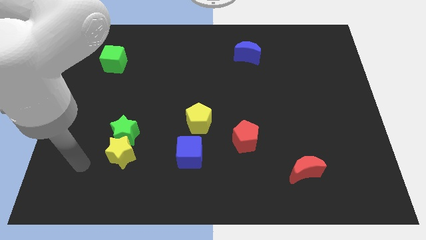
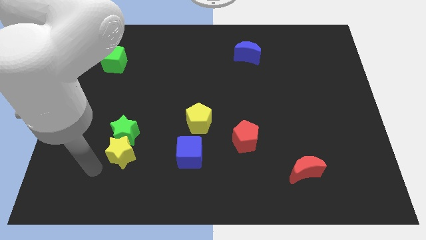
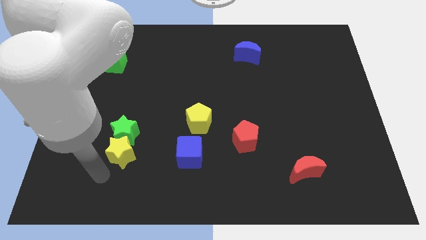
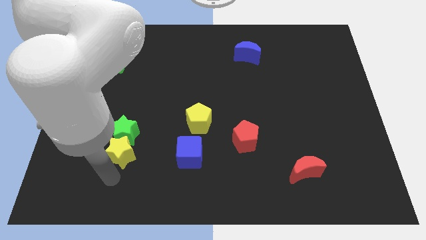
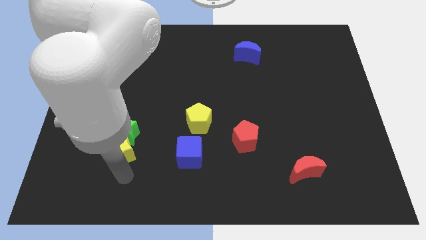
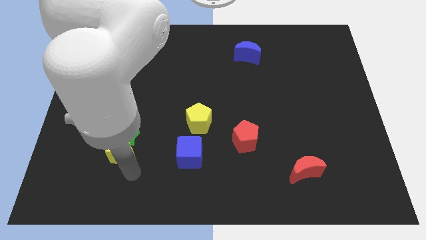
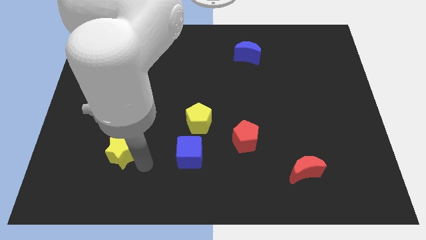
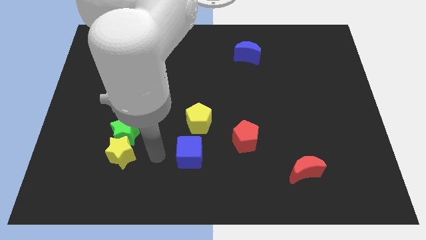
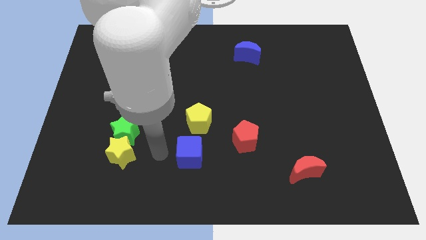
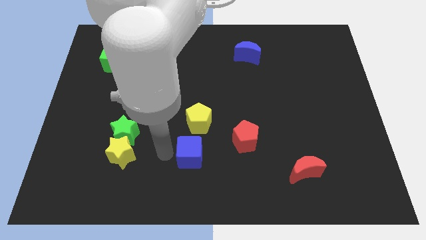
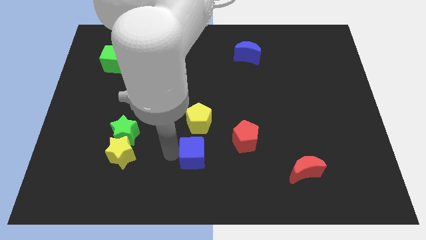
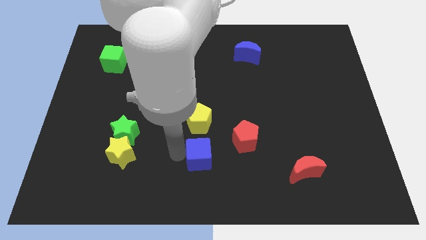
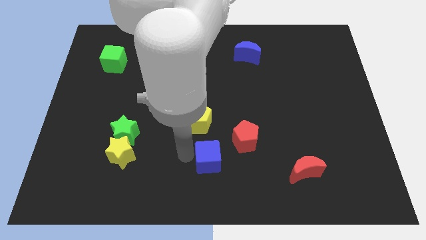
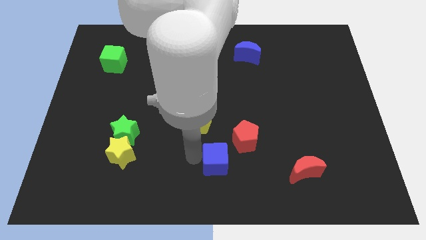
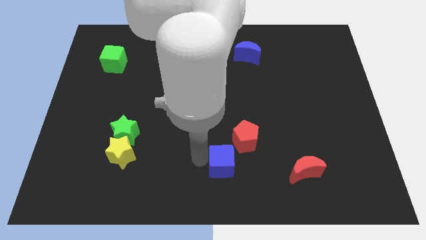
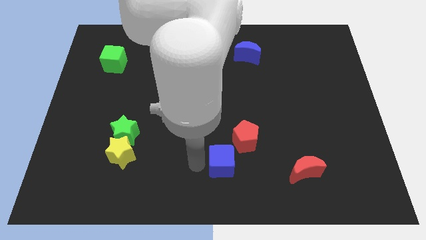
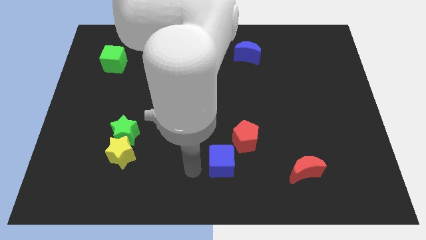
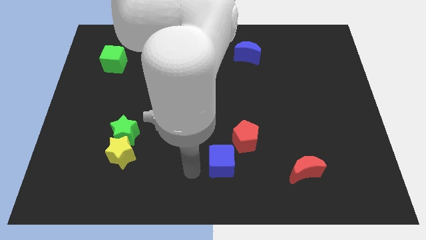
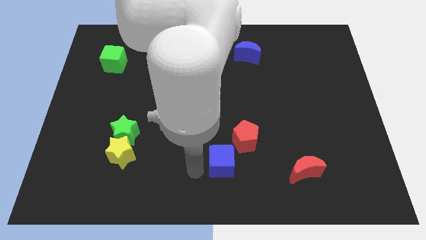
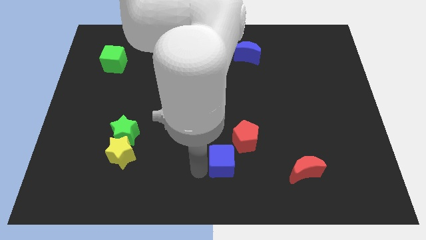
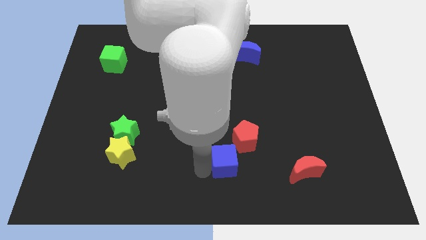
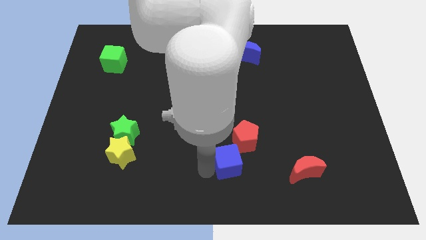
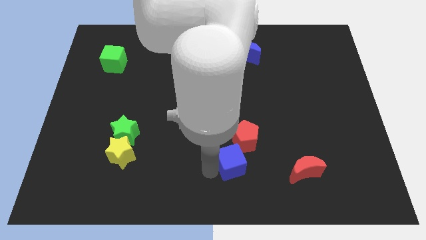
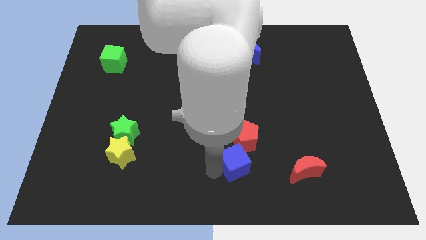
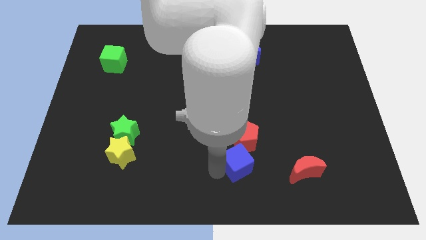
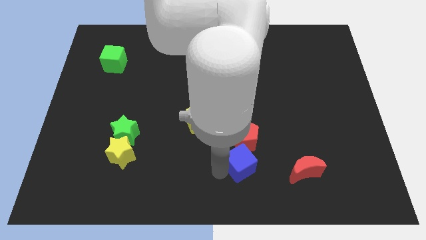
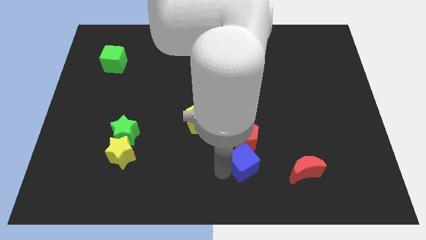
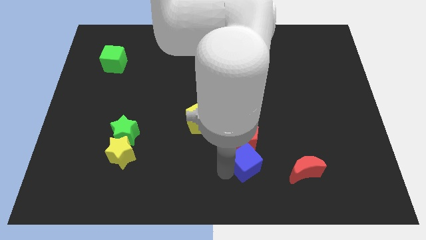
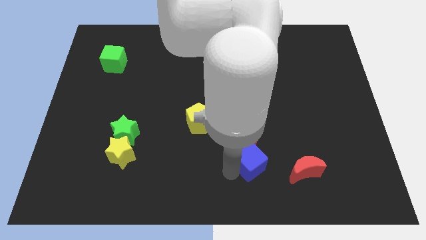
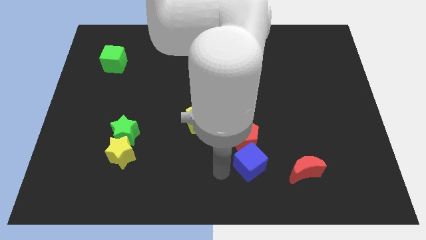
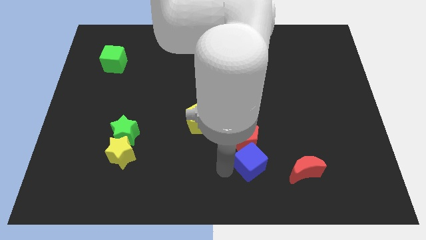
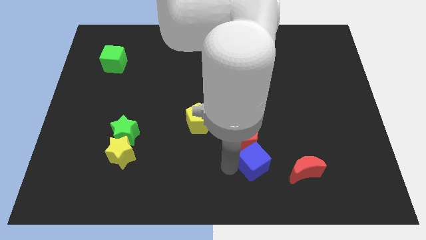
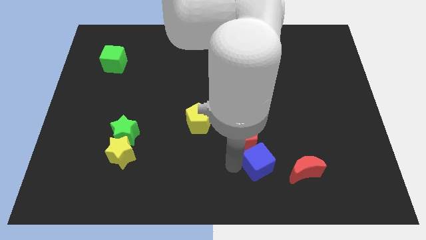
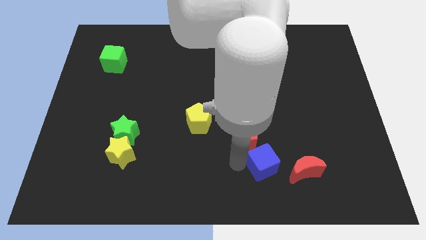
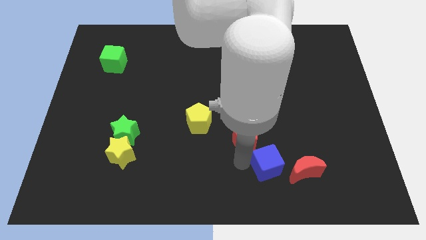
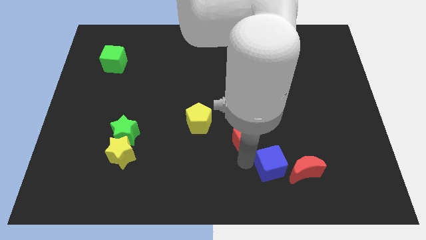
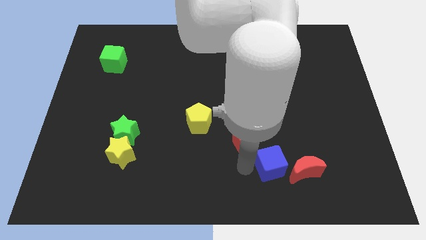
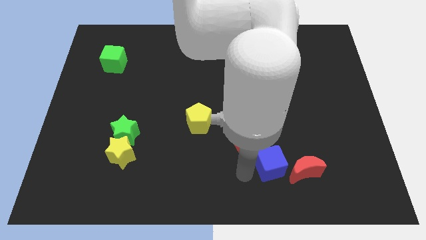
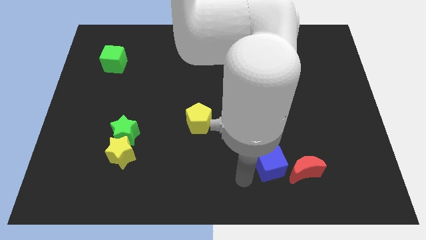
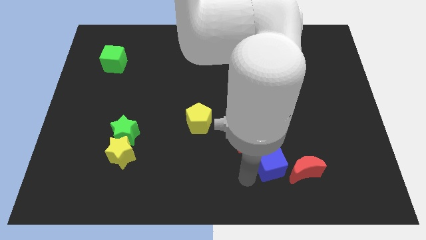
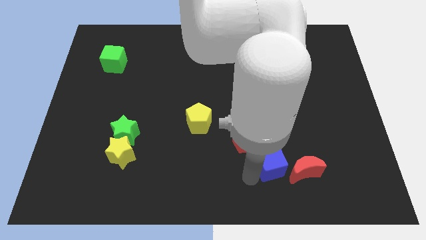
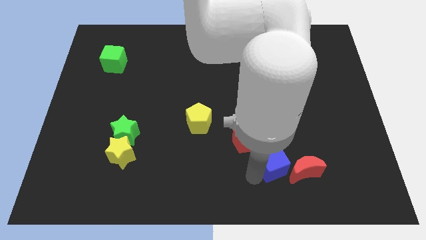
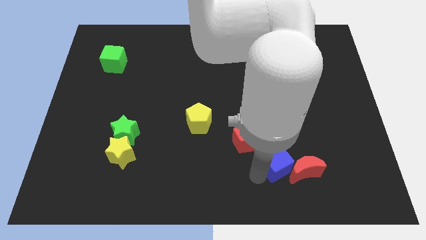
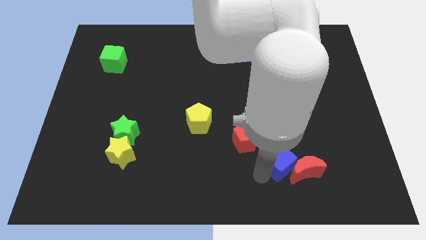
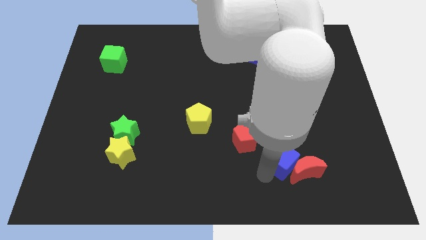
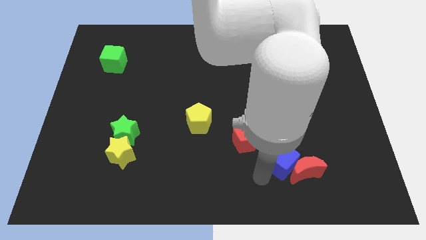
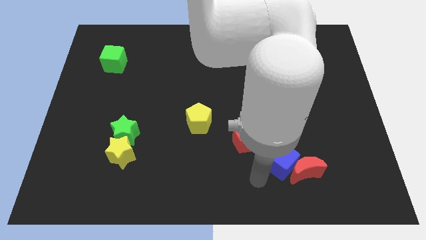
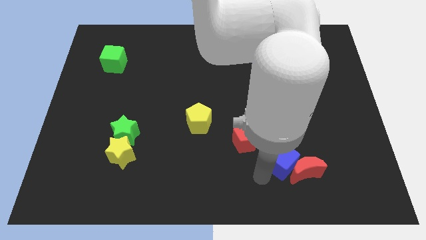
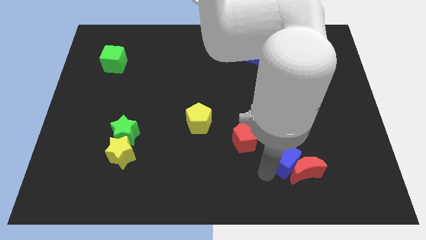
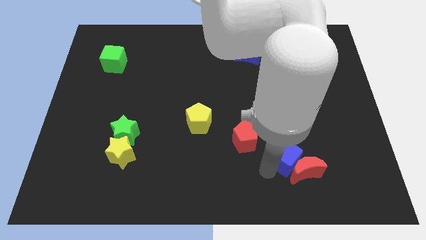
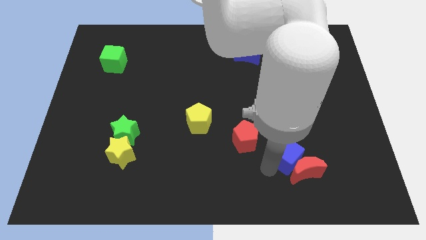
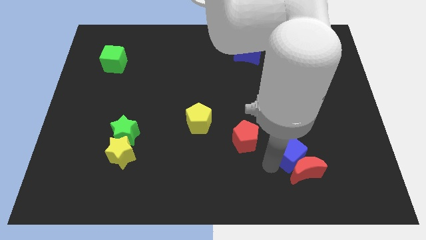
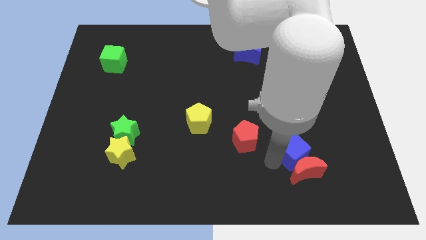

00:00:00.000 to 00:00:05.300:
put the blue cube to the top right side of the red moon

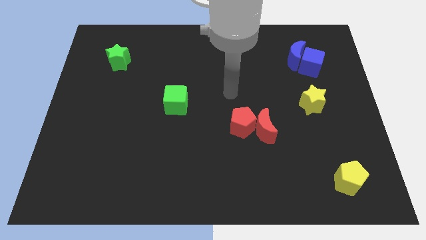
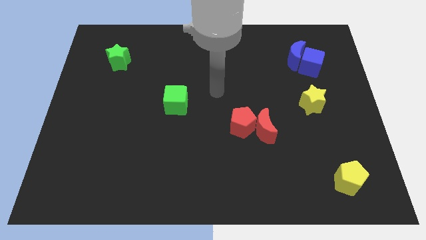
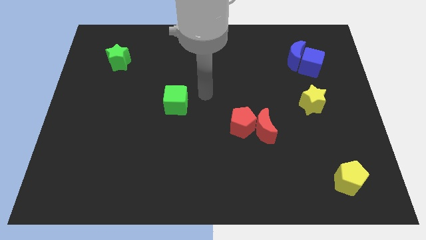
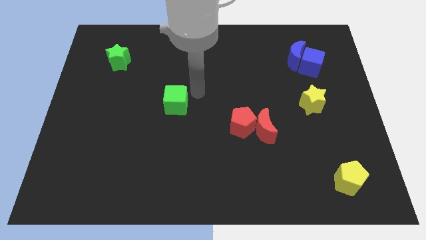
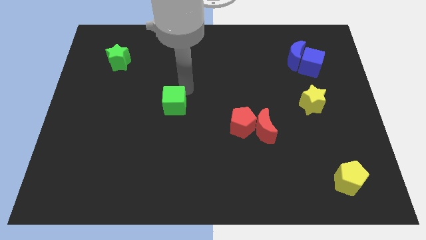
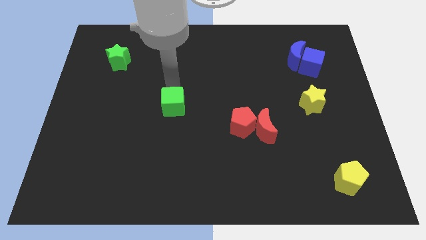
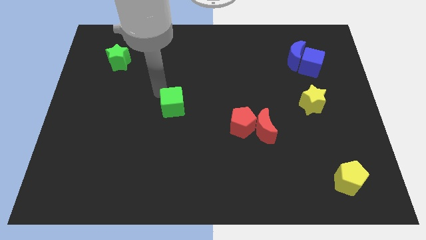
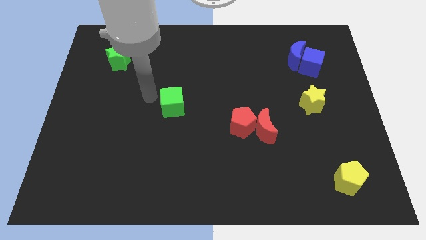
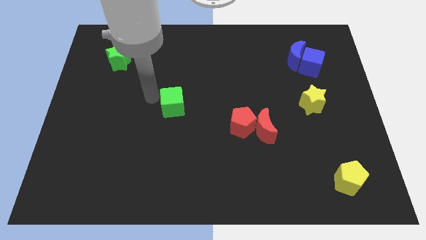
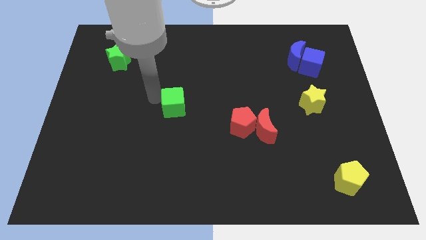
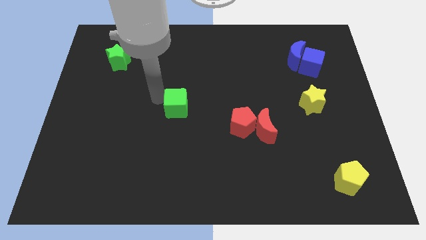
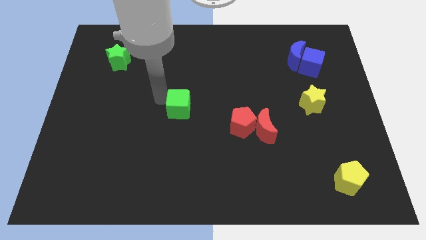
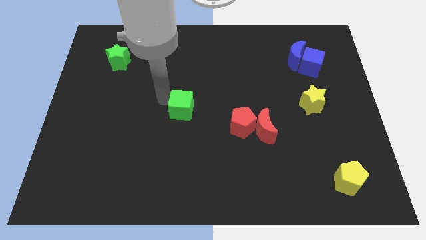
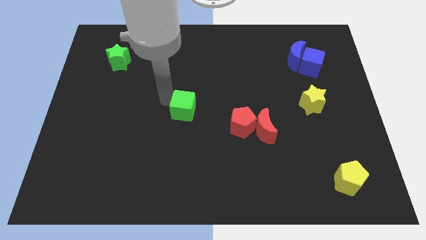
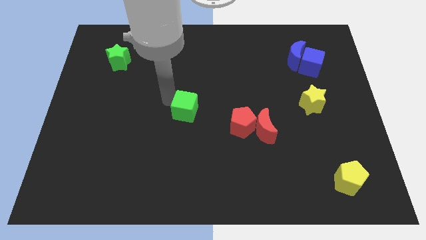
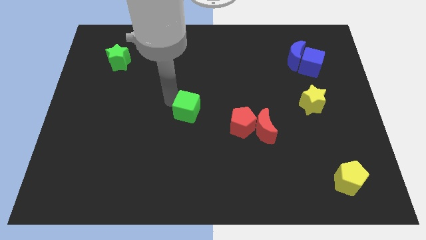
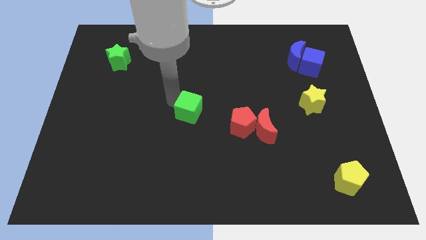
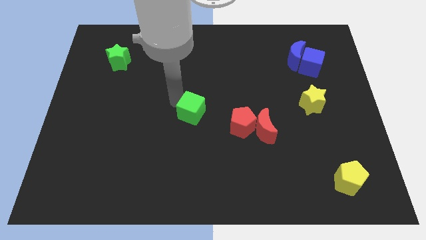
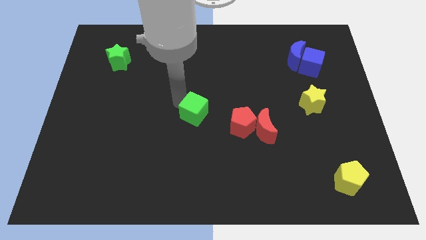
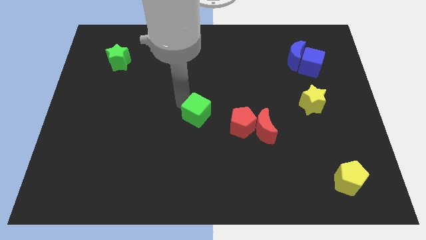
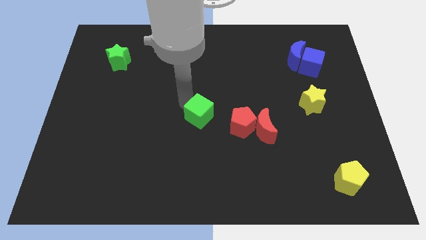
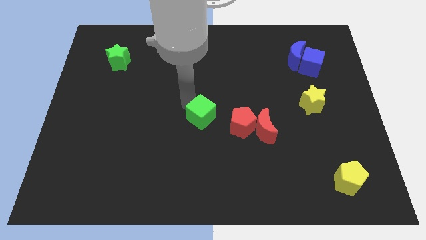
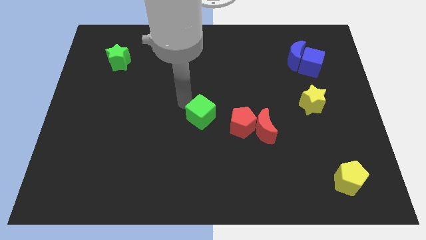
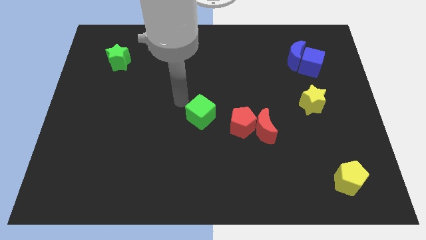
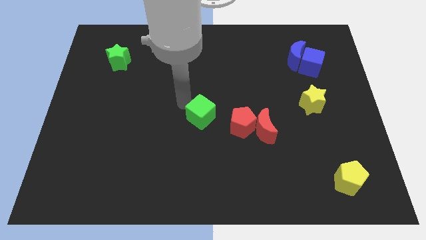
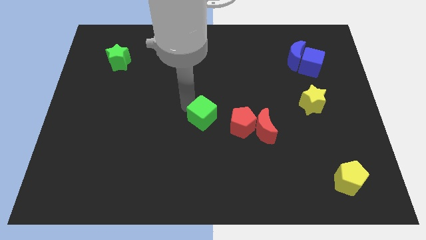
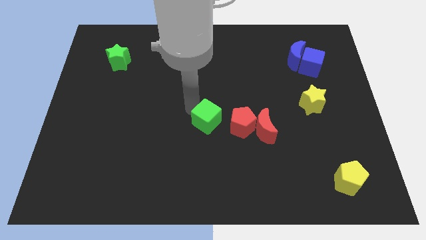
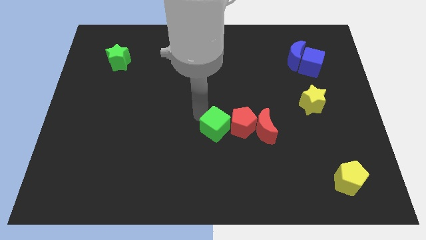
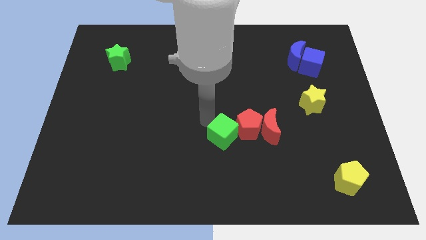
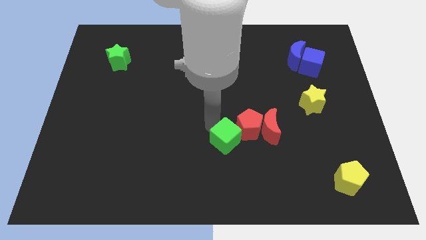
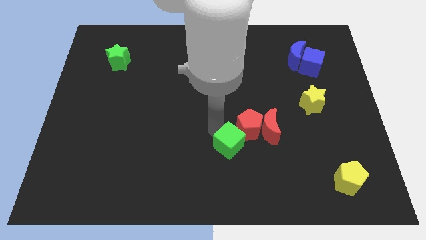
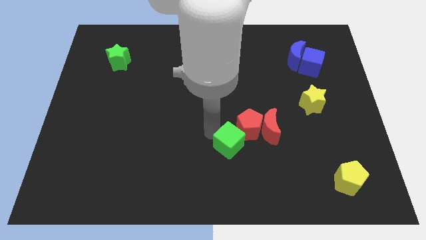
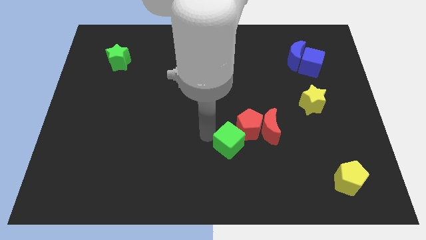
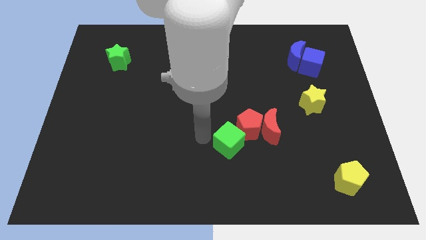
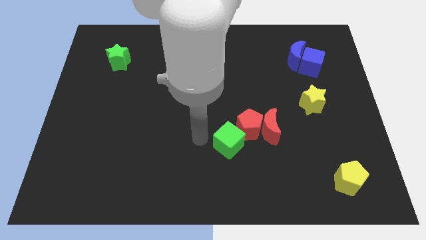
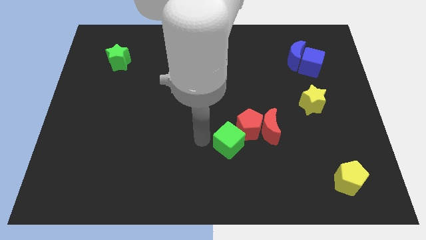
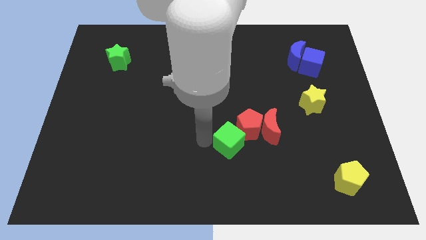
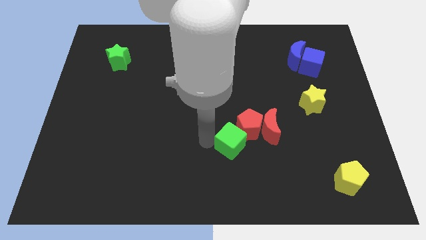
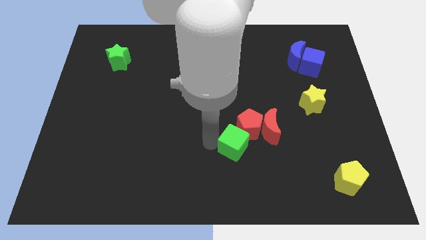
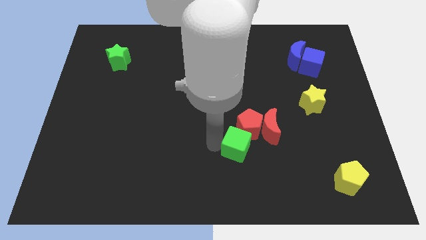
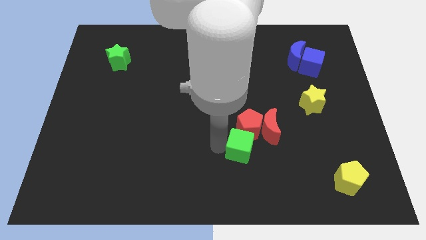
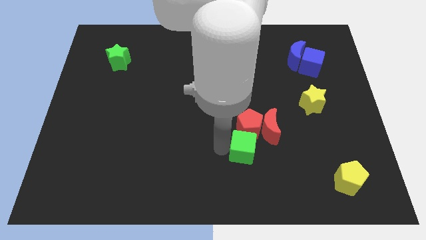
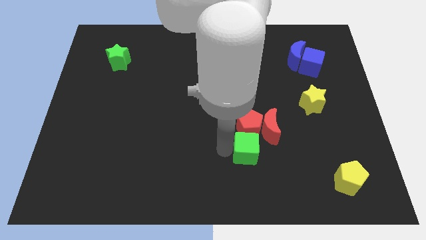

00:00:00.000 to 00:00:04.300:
put the green cube to the bottom right side of the red pentagon
